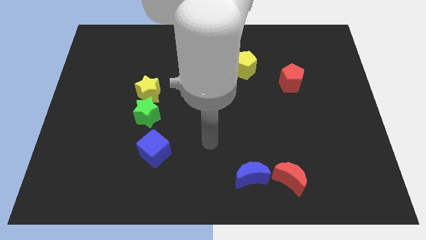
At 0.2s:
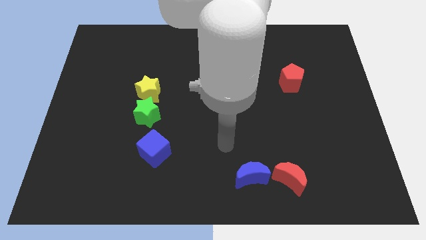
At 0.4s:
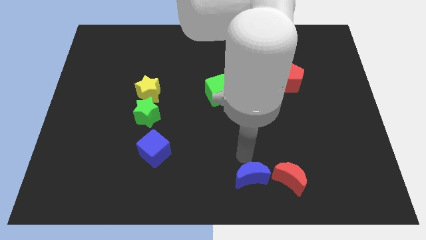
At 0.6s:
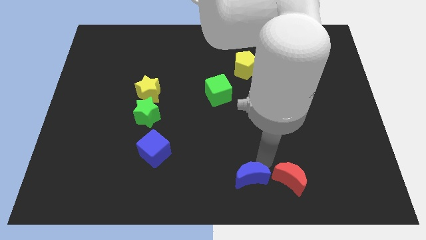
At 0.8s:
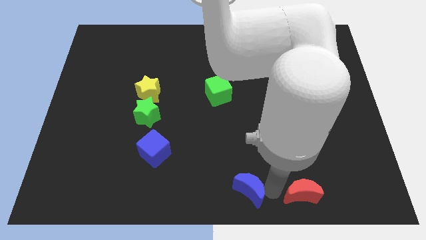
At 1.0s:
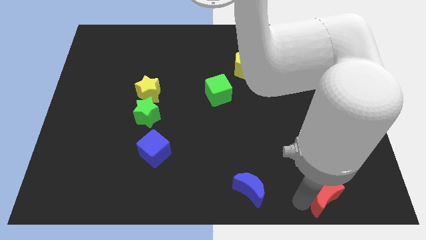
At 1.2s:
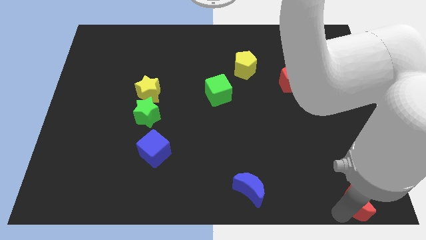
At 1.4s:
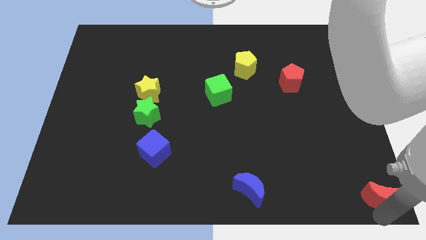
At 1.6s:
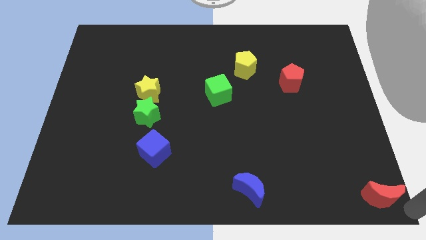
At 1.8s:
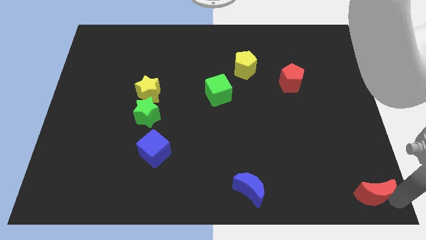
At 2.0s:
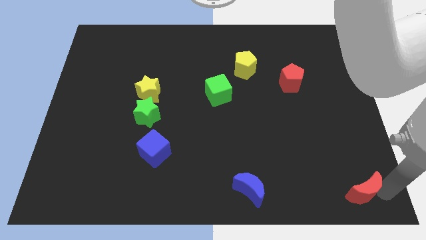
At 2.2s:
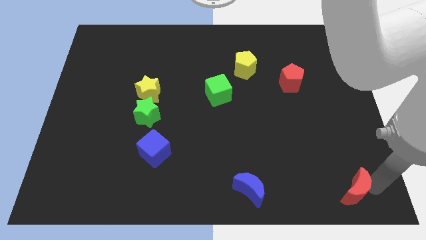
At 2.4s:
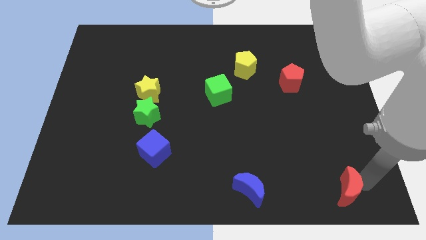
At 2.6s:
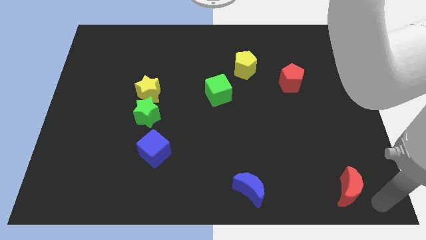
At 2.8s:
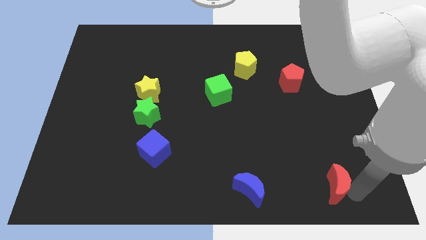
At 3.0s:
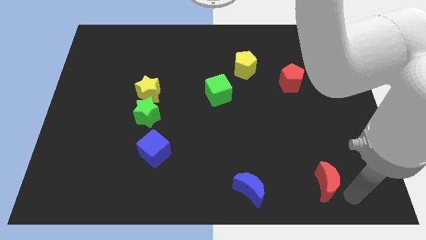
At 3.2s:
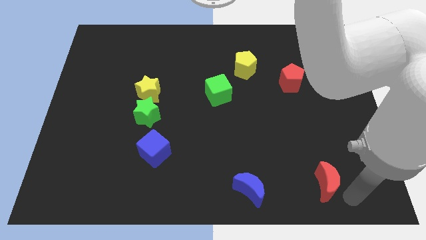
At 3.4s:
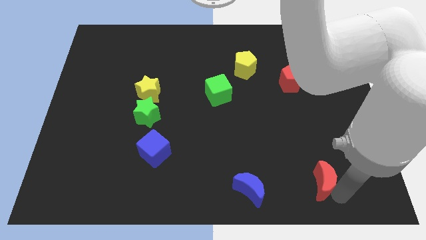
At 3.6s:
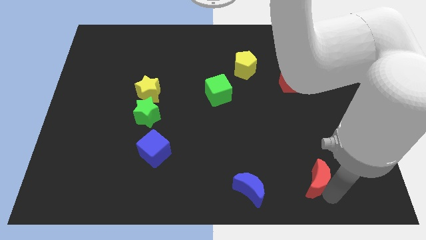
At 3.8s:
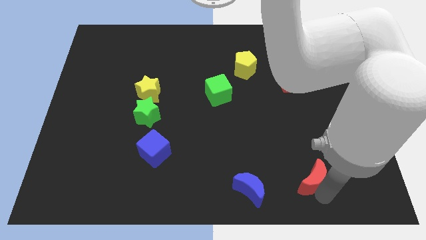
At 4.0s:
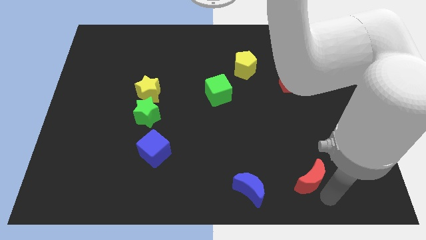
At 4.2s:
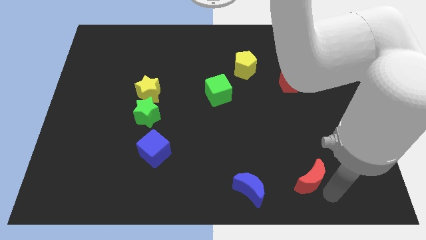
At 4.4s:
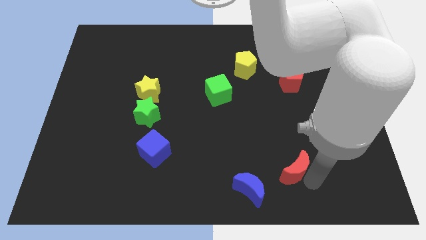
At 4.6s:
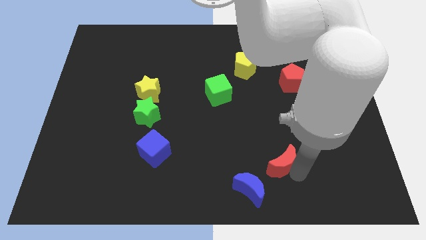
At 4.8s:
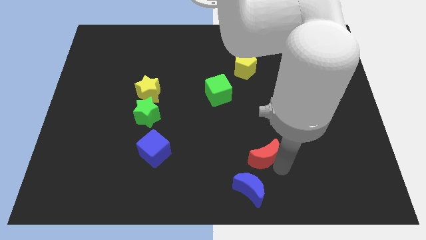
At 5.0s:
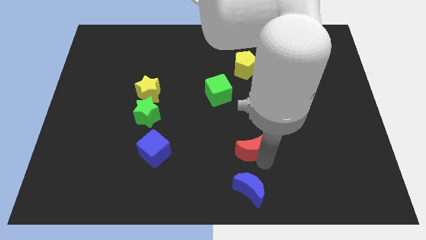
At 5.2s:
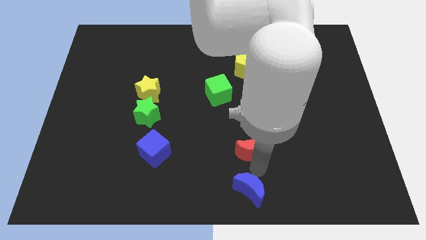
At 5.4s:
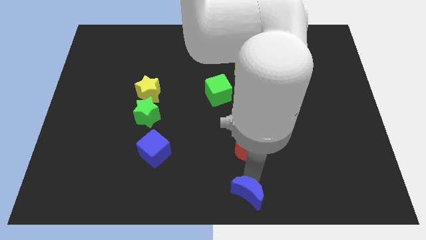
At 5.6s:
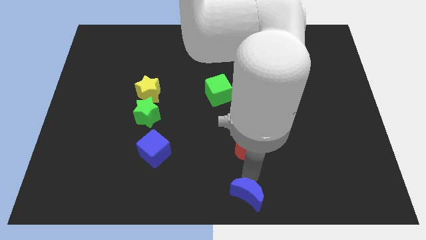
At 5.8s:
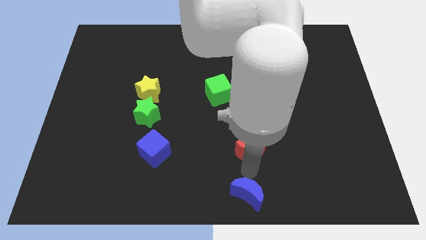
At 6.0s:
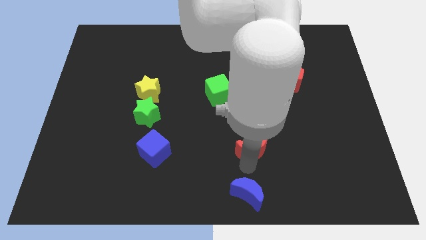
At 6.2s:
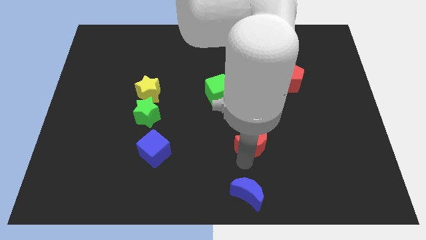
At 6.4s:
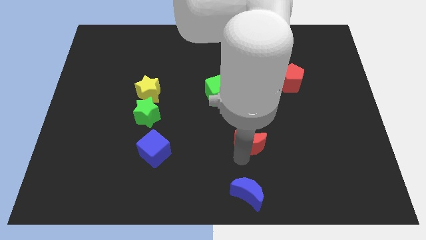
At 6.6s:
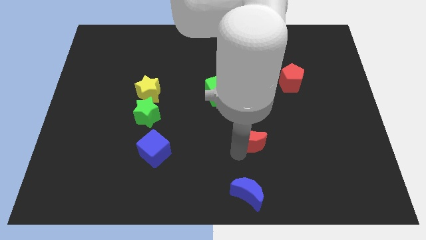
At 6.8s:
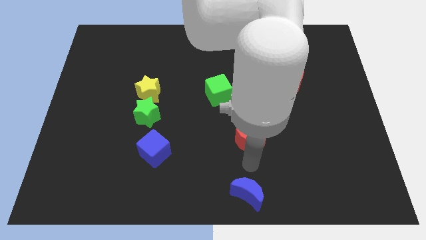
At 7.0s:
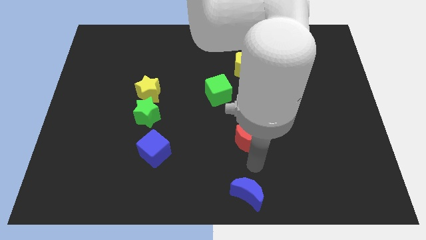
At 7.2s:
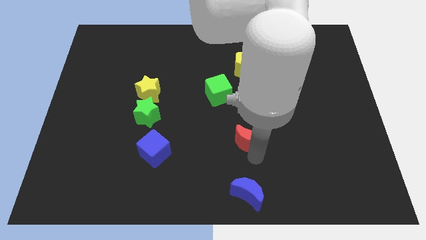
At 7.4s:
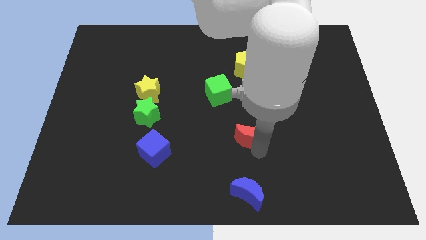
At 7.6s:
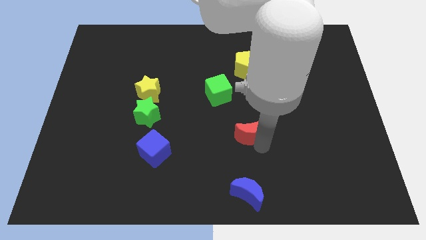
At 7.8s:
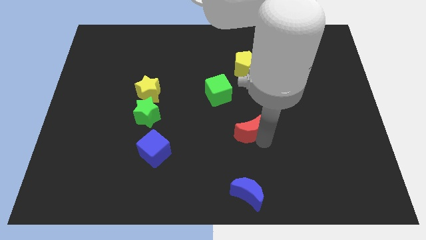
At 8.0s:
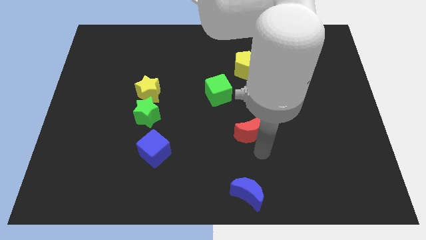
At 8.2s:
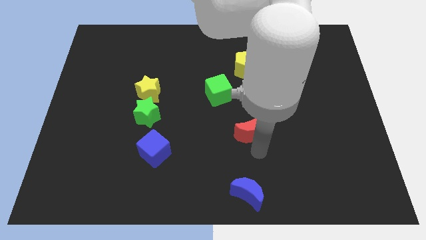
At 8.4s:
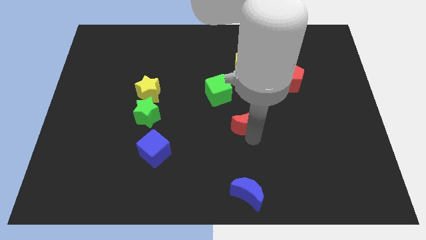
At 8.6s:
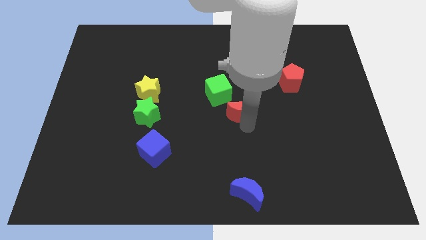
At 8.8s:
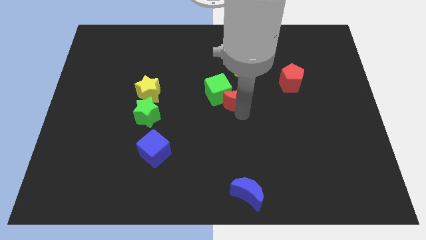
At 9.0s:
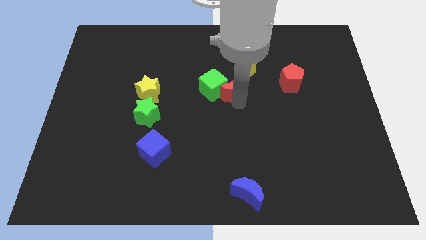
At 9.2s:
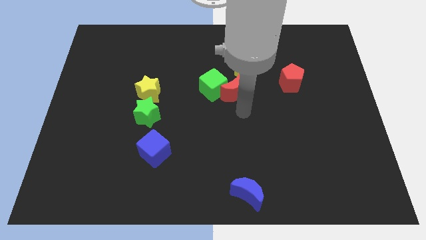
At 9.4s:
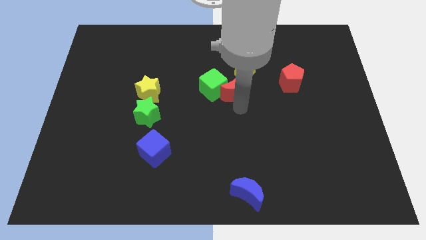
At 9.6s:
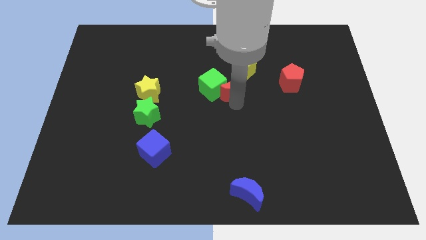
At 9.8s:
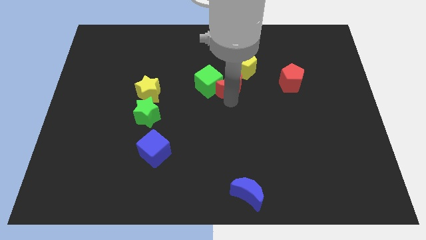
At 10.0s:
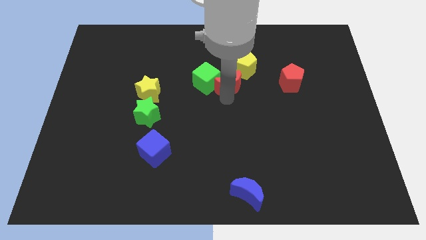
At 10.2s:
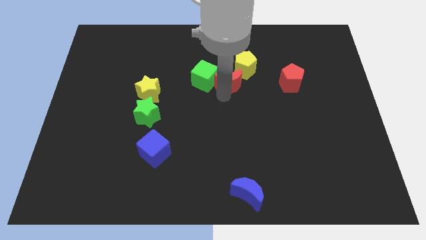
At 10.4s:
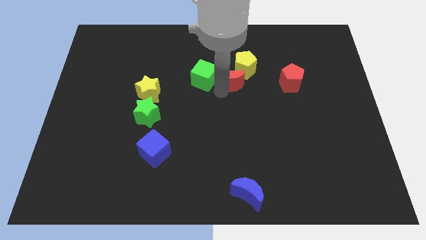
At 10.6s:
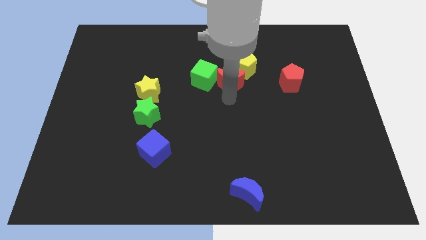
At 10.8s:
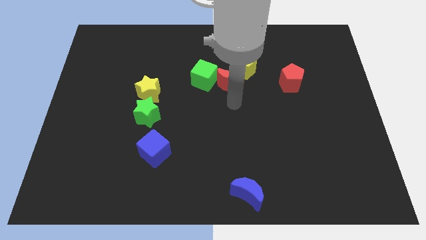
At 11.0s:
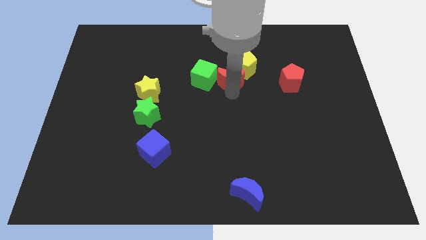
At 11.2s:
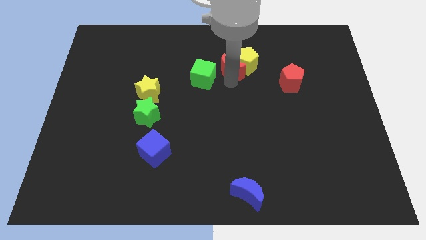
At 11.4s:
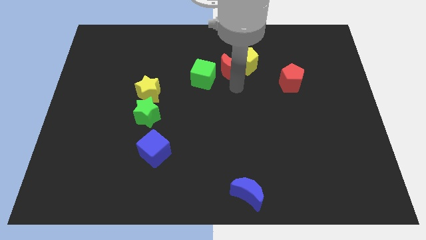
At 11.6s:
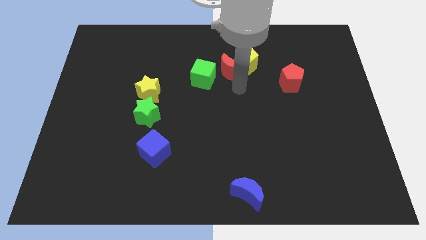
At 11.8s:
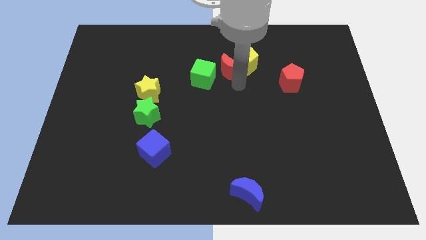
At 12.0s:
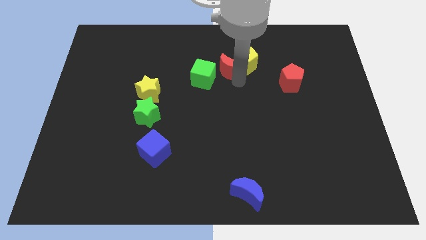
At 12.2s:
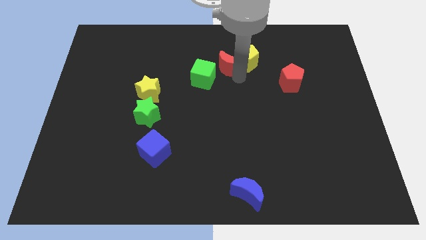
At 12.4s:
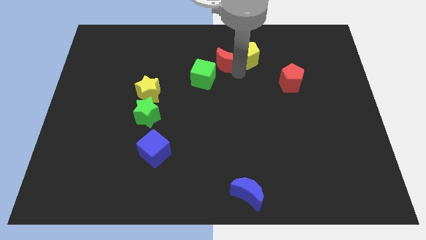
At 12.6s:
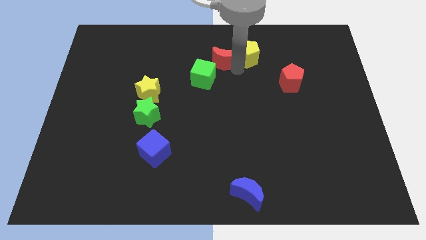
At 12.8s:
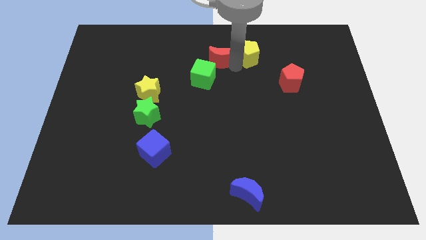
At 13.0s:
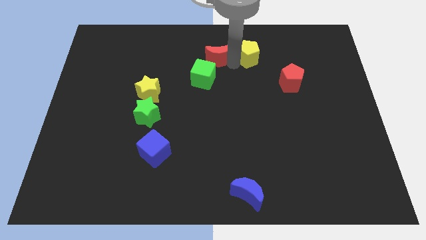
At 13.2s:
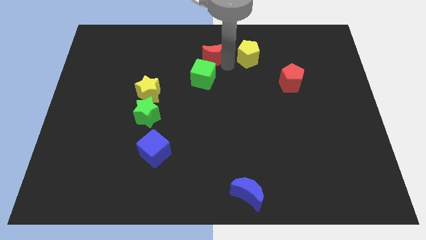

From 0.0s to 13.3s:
push the red moon to the top
